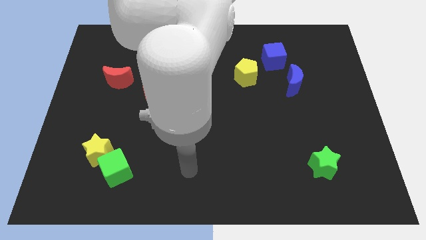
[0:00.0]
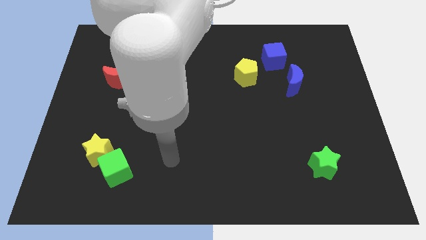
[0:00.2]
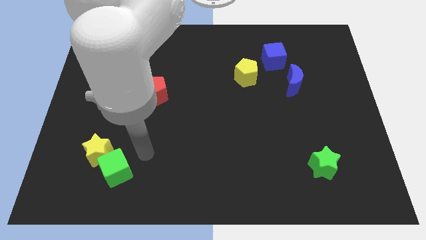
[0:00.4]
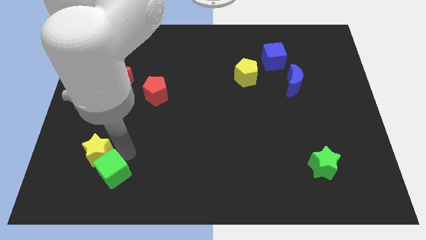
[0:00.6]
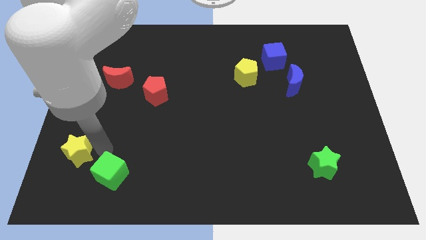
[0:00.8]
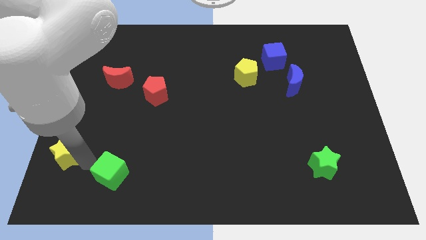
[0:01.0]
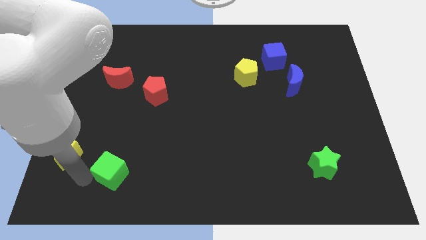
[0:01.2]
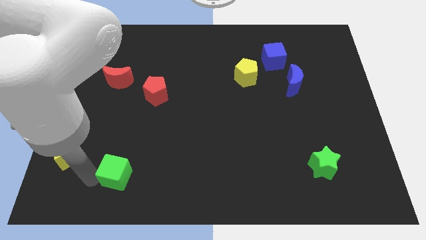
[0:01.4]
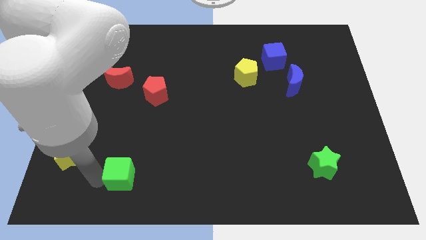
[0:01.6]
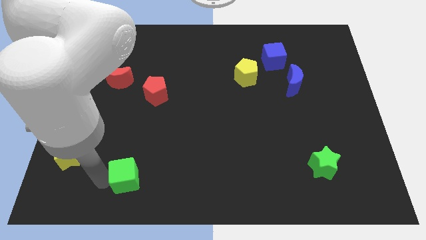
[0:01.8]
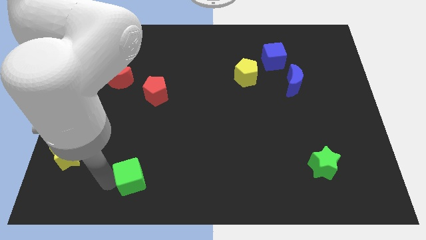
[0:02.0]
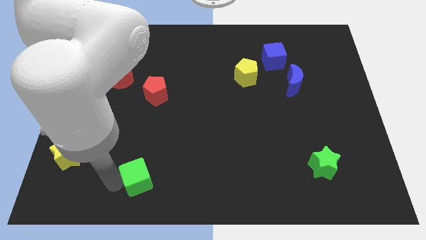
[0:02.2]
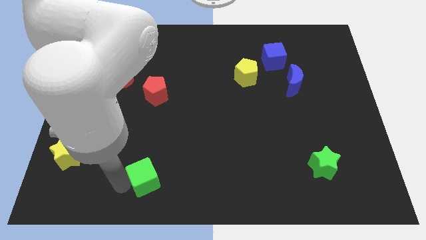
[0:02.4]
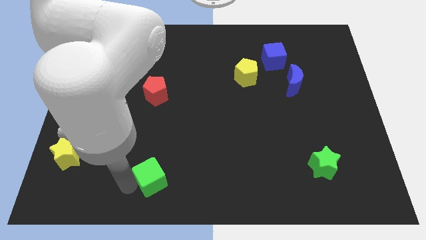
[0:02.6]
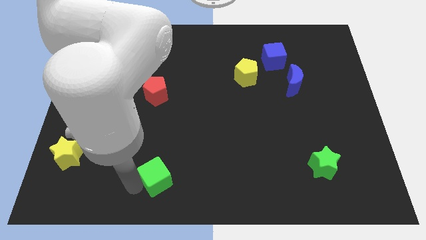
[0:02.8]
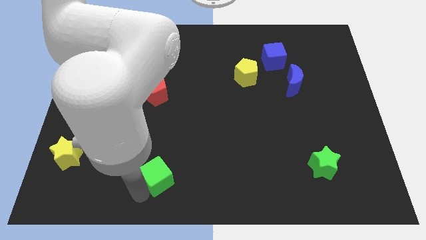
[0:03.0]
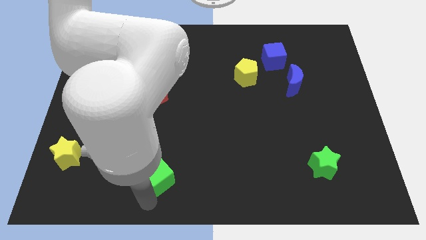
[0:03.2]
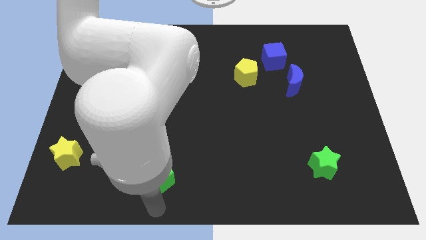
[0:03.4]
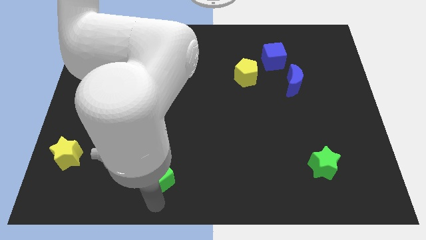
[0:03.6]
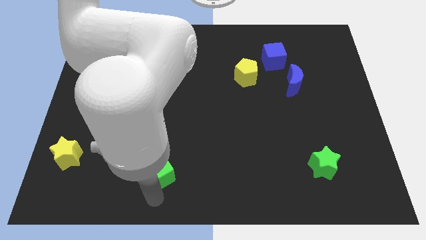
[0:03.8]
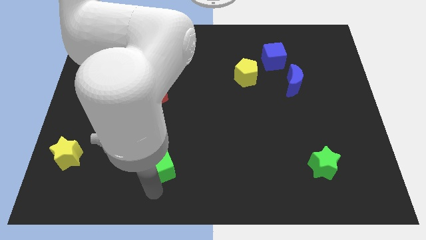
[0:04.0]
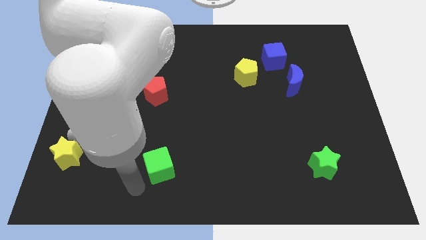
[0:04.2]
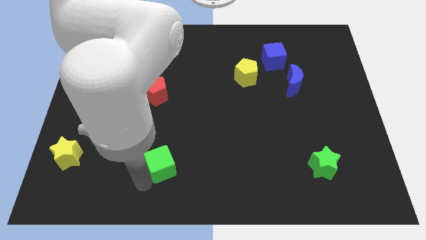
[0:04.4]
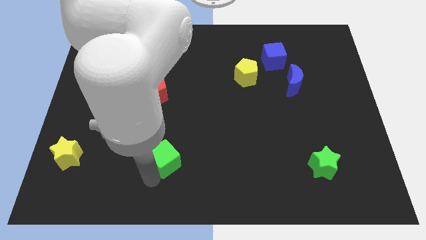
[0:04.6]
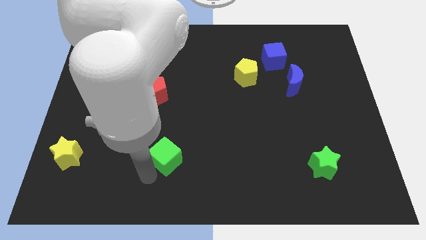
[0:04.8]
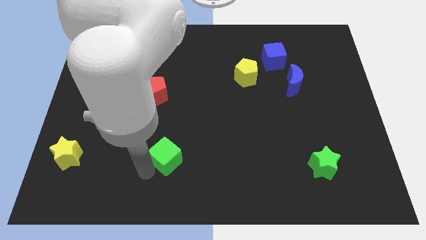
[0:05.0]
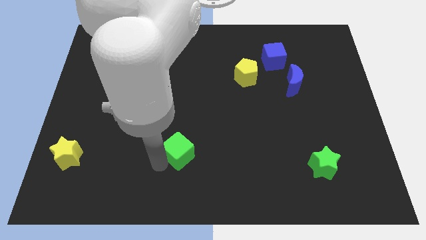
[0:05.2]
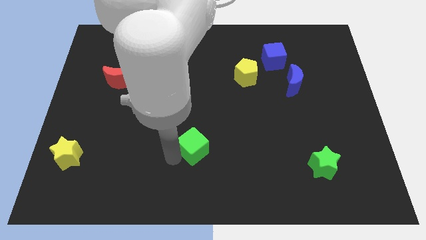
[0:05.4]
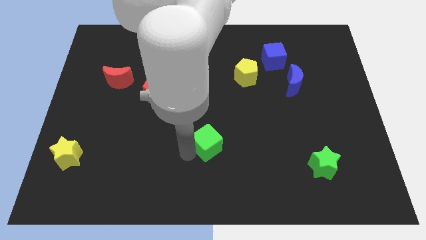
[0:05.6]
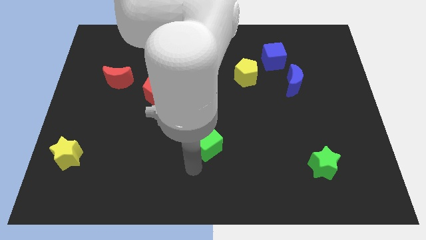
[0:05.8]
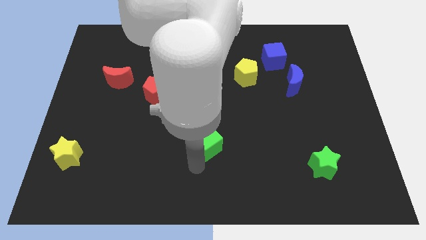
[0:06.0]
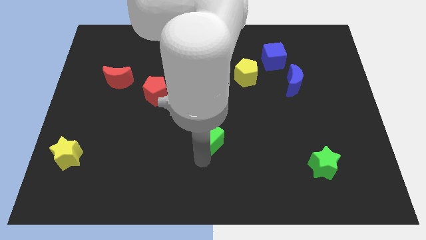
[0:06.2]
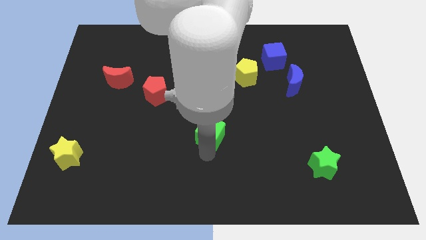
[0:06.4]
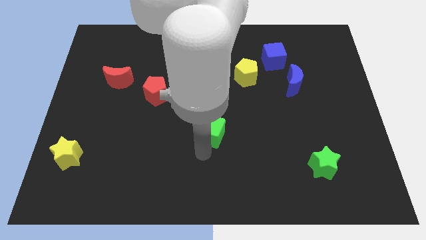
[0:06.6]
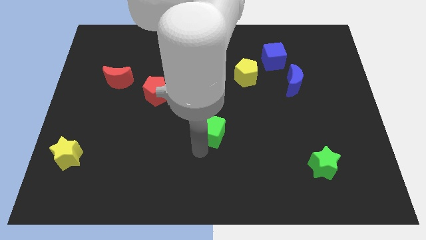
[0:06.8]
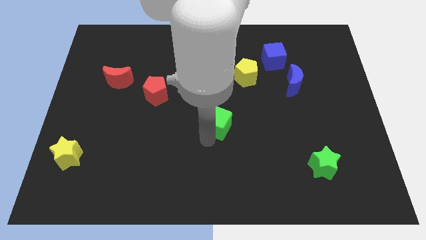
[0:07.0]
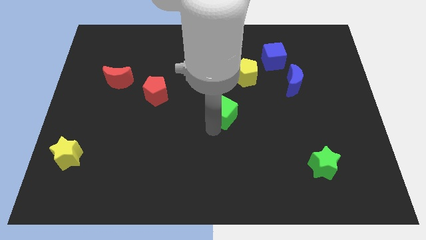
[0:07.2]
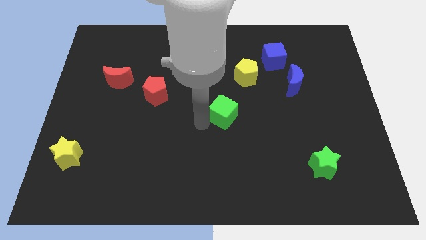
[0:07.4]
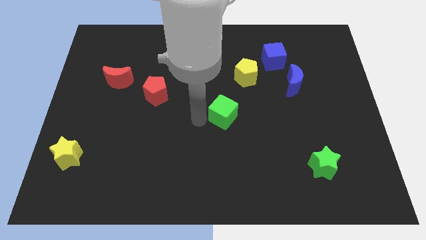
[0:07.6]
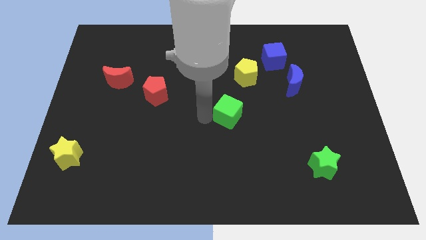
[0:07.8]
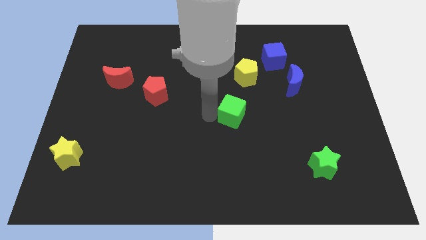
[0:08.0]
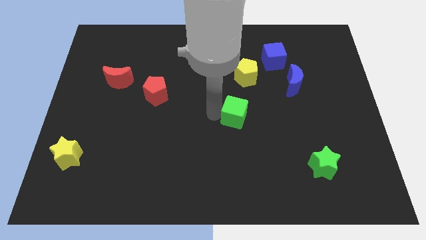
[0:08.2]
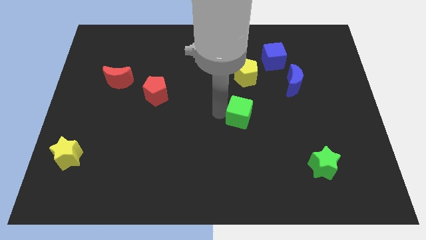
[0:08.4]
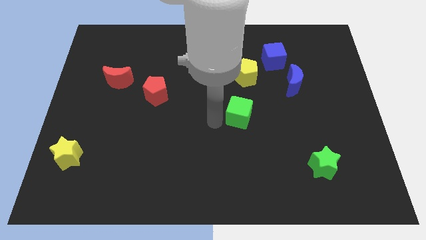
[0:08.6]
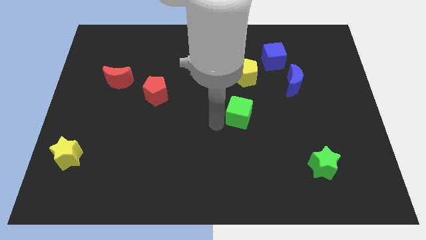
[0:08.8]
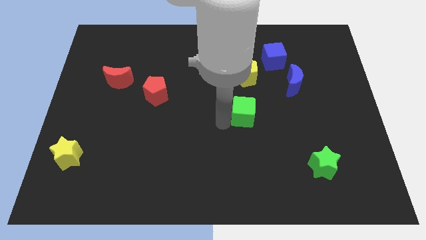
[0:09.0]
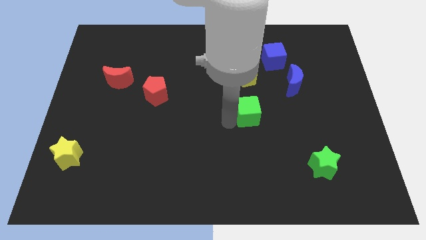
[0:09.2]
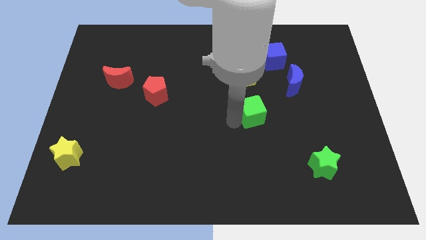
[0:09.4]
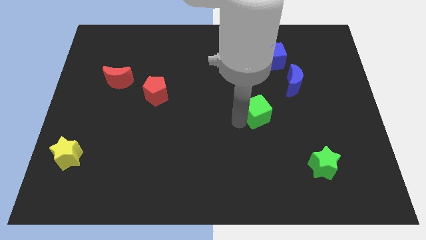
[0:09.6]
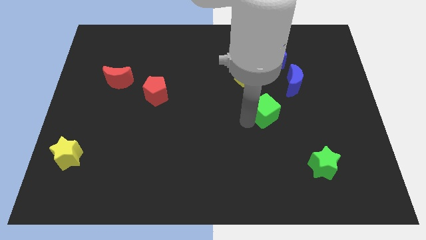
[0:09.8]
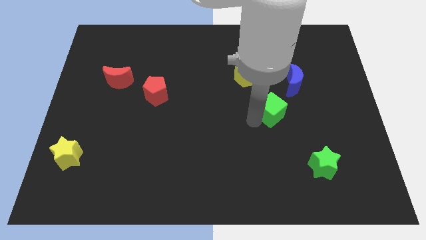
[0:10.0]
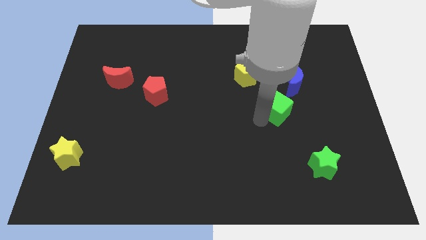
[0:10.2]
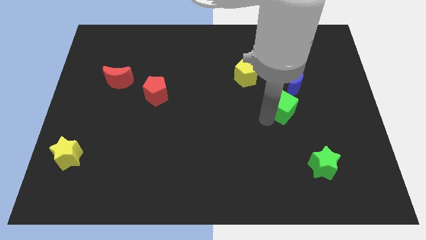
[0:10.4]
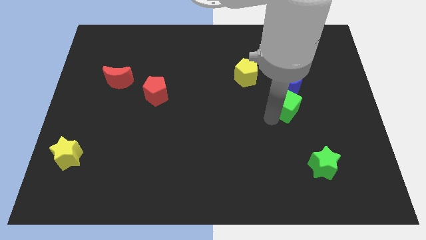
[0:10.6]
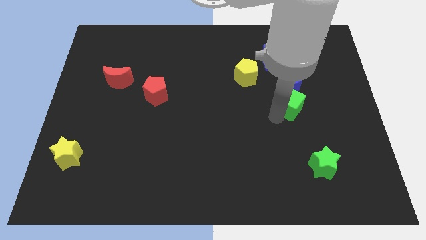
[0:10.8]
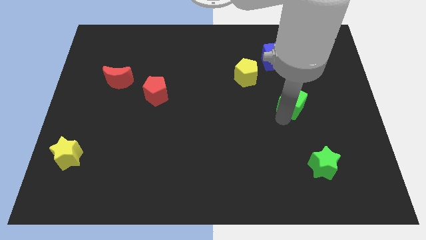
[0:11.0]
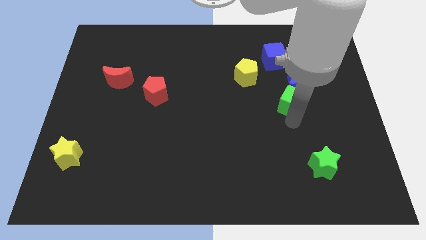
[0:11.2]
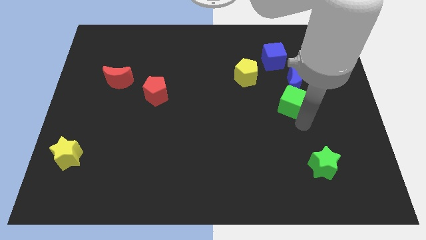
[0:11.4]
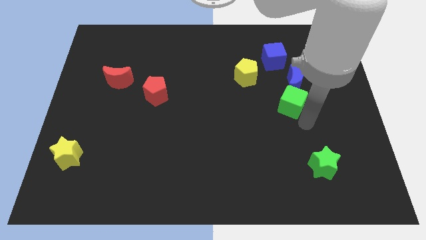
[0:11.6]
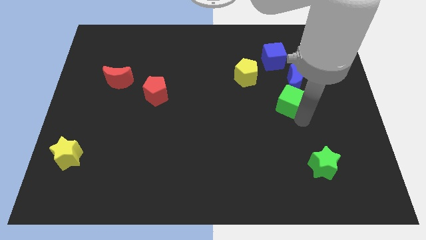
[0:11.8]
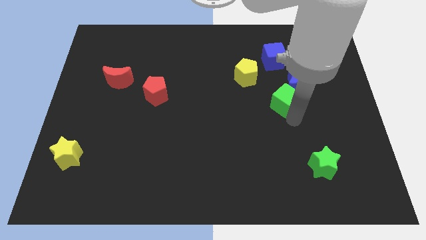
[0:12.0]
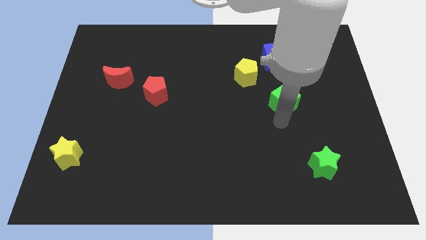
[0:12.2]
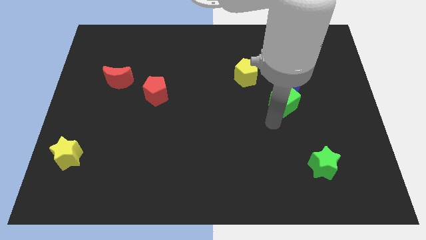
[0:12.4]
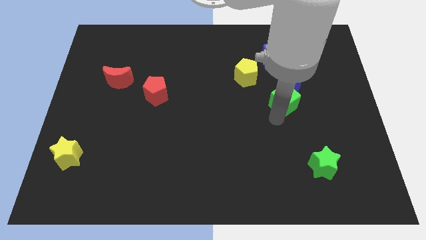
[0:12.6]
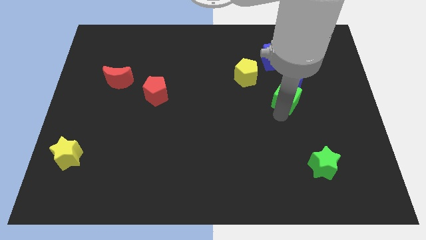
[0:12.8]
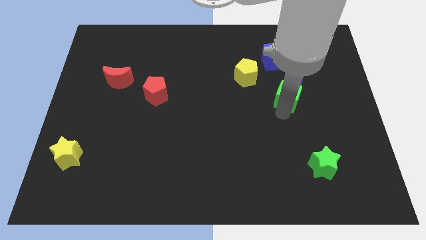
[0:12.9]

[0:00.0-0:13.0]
put the green cube next to the blue moon

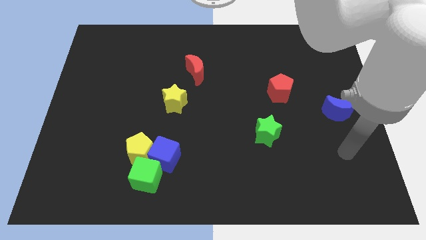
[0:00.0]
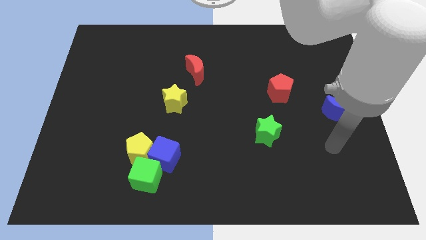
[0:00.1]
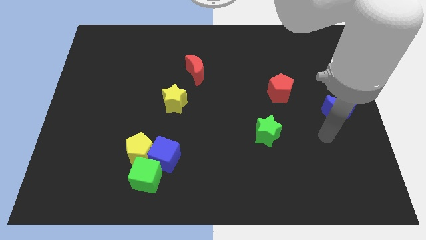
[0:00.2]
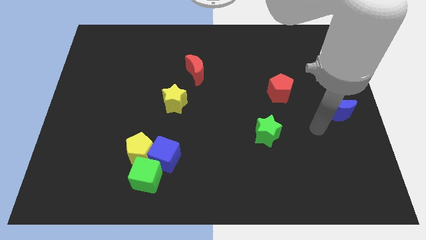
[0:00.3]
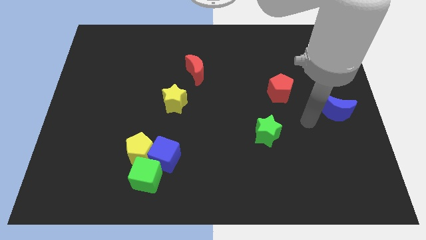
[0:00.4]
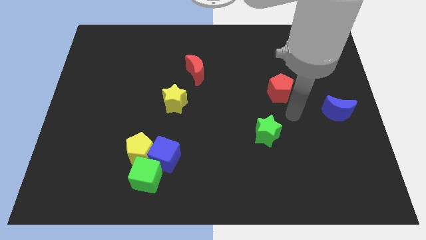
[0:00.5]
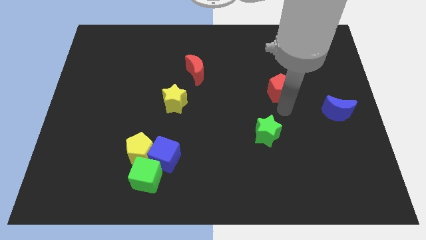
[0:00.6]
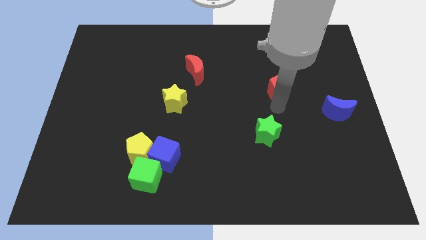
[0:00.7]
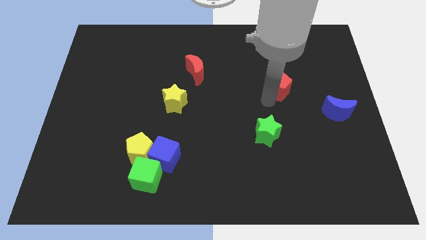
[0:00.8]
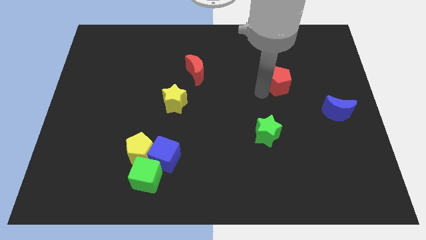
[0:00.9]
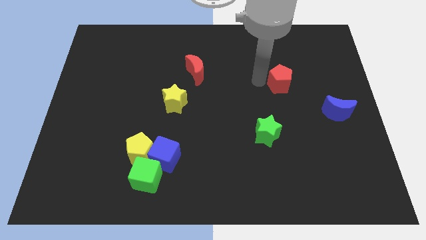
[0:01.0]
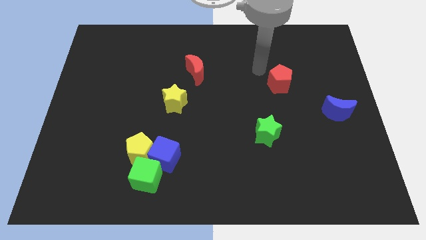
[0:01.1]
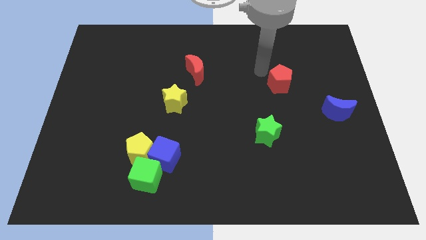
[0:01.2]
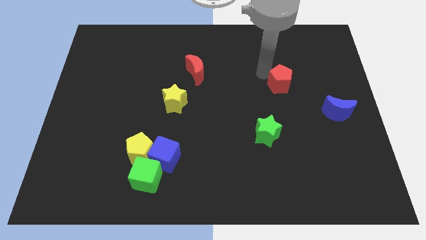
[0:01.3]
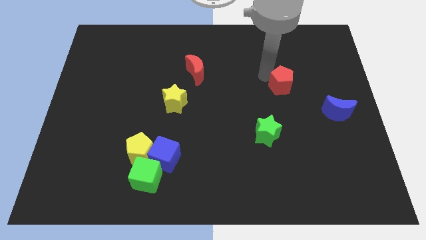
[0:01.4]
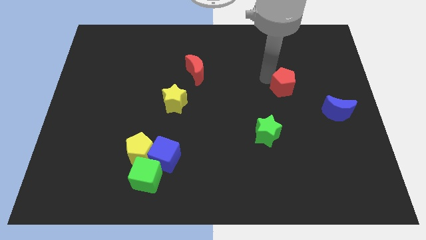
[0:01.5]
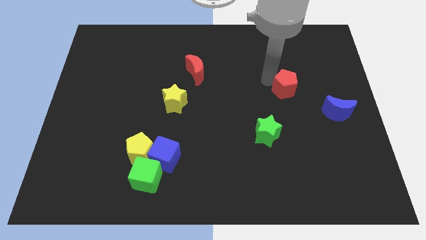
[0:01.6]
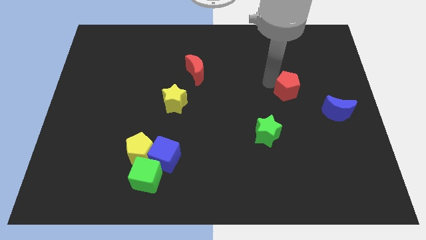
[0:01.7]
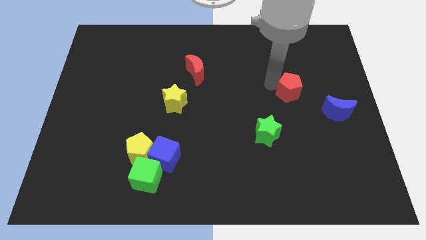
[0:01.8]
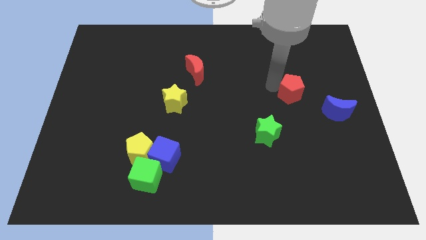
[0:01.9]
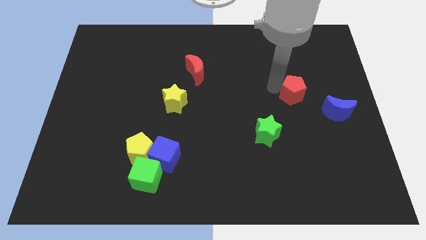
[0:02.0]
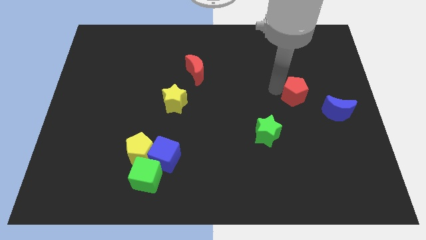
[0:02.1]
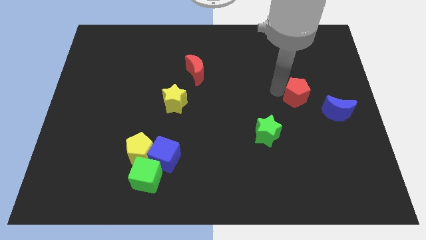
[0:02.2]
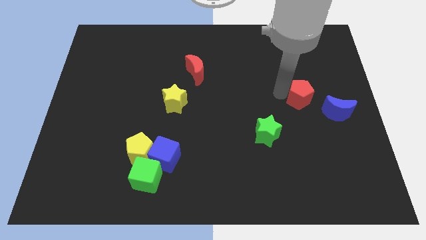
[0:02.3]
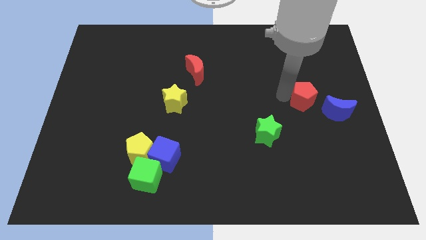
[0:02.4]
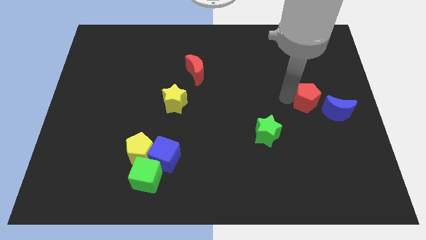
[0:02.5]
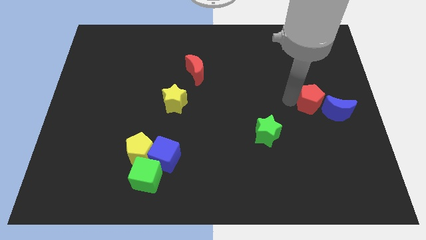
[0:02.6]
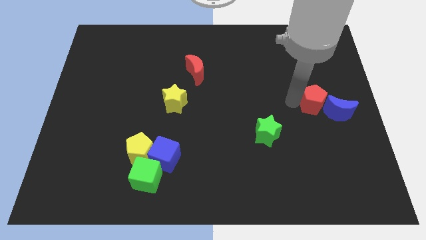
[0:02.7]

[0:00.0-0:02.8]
move the red pentagon towards the blue moon
